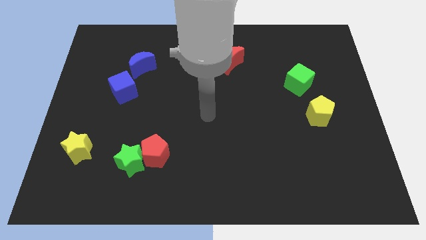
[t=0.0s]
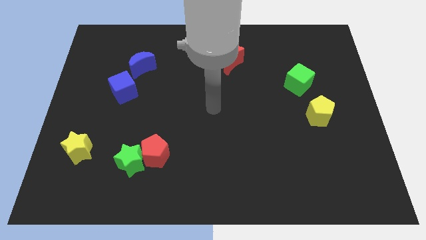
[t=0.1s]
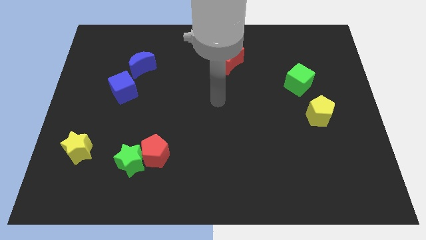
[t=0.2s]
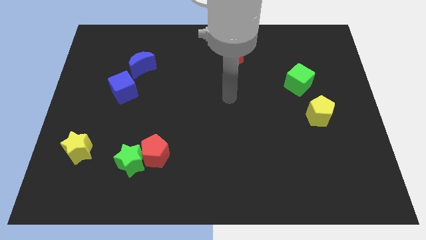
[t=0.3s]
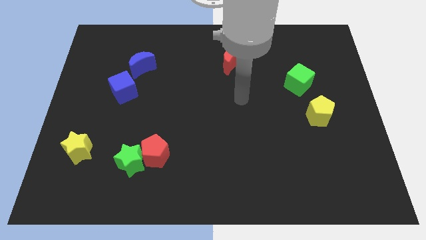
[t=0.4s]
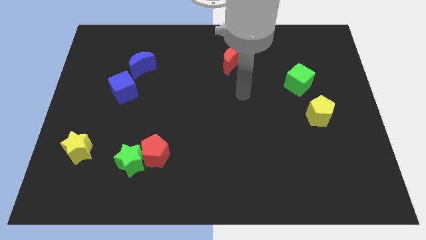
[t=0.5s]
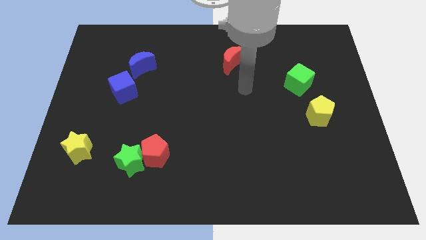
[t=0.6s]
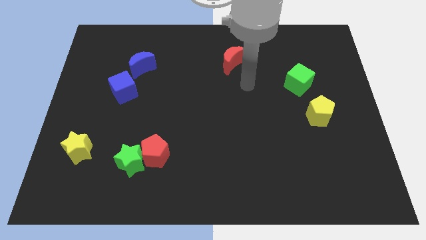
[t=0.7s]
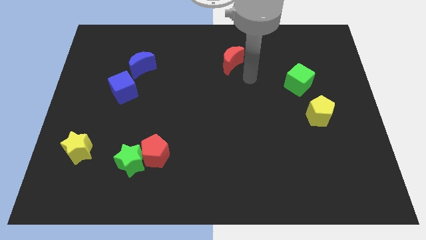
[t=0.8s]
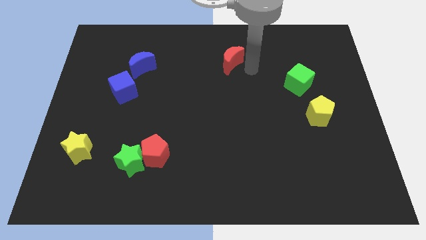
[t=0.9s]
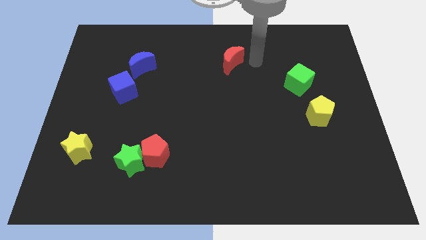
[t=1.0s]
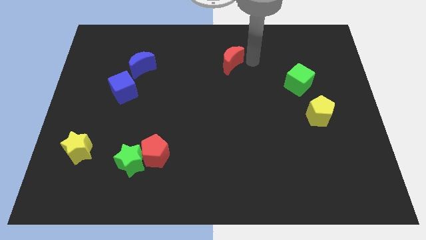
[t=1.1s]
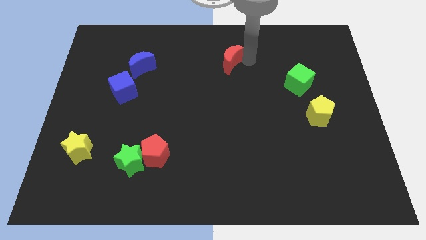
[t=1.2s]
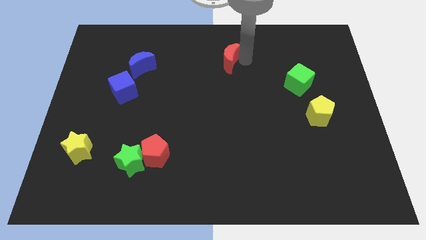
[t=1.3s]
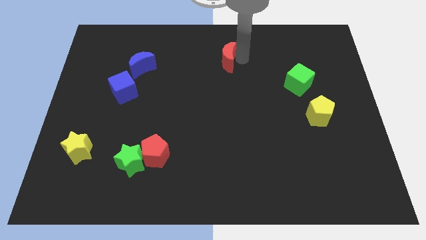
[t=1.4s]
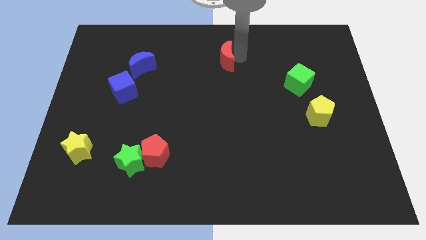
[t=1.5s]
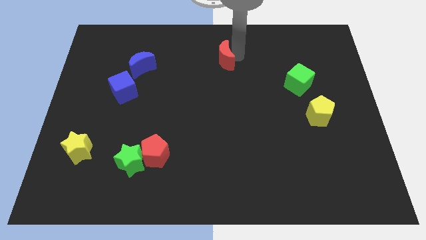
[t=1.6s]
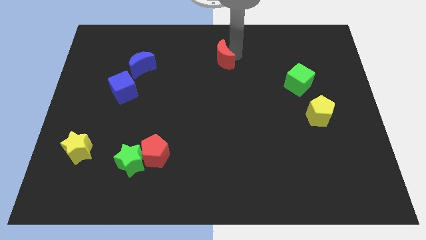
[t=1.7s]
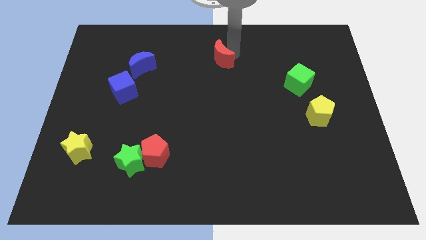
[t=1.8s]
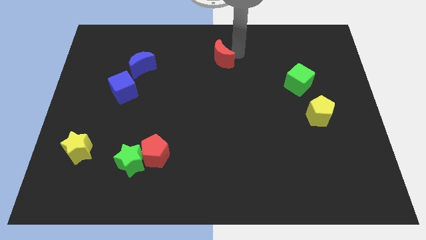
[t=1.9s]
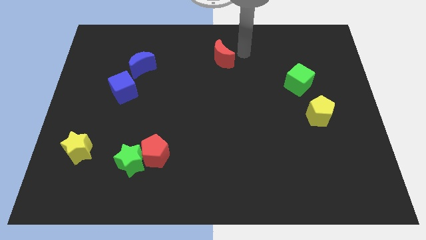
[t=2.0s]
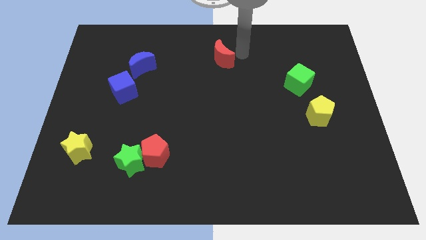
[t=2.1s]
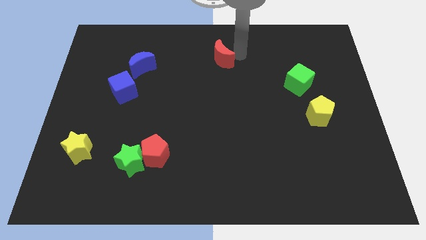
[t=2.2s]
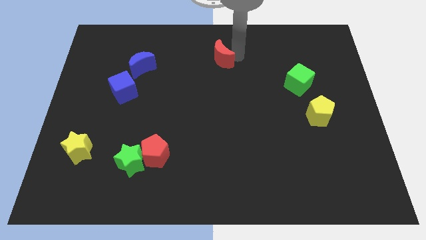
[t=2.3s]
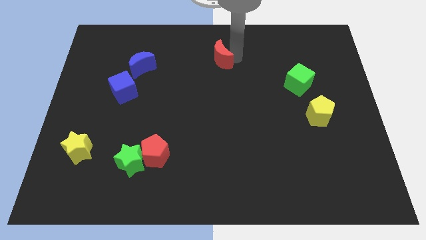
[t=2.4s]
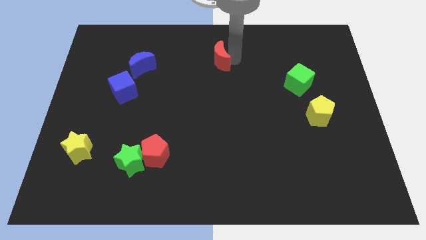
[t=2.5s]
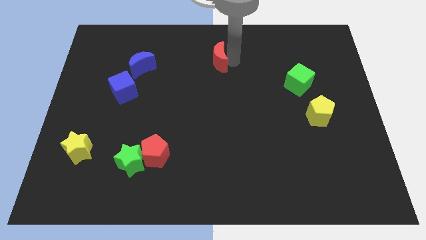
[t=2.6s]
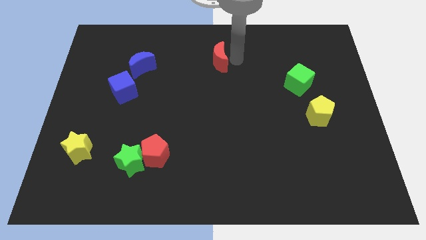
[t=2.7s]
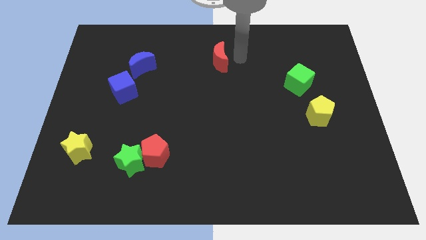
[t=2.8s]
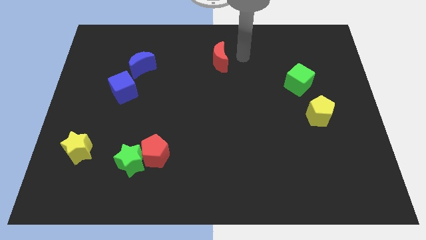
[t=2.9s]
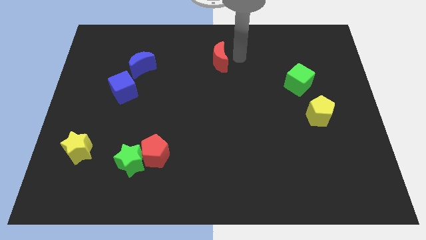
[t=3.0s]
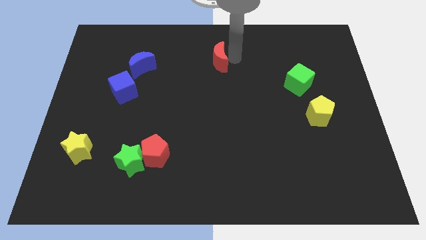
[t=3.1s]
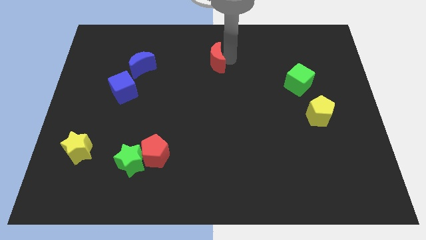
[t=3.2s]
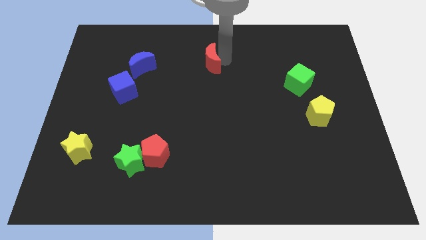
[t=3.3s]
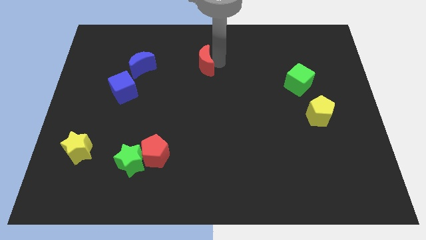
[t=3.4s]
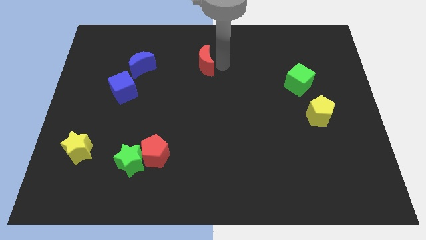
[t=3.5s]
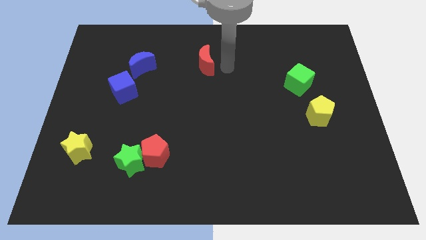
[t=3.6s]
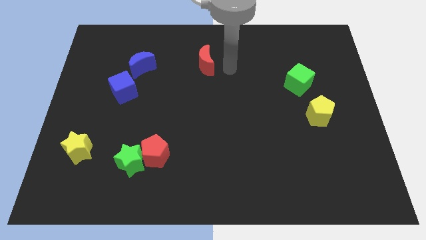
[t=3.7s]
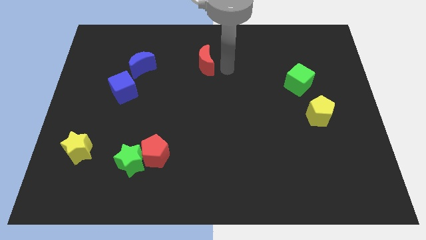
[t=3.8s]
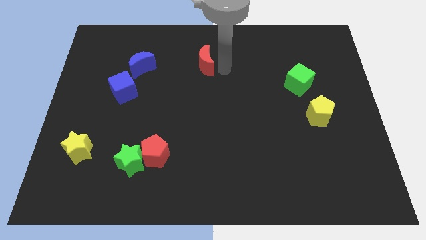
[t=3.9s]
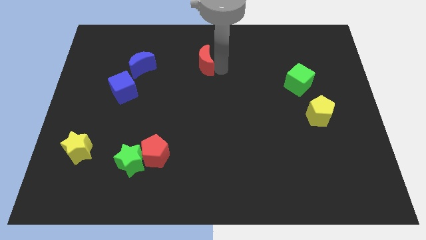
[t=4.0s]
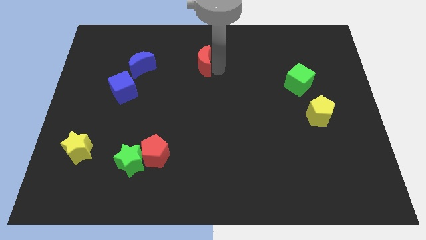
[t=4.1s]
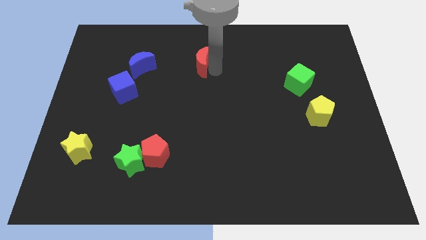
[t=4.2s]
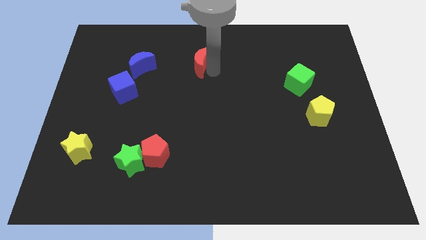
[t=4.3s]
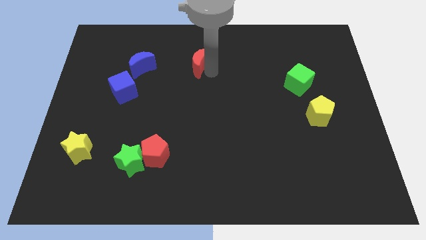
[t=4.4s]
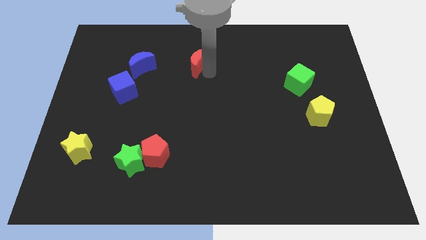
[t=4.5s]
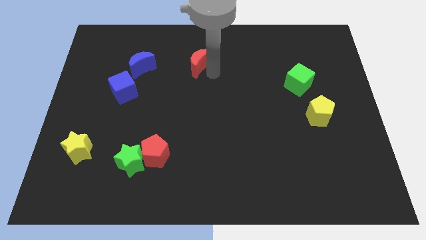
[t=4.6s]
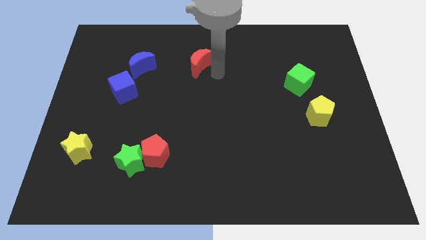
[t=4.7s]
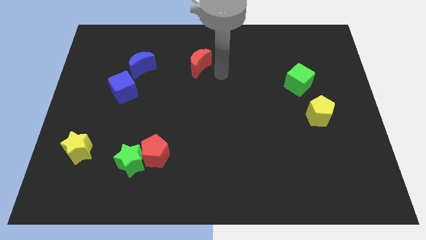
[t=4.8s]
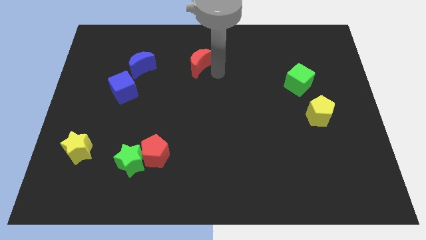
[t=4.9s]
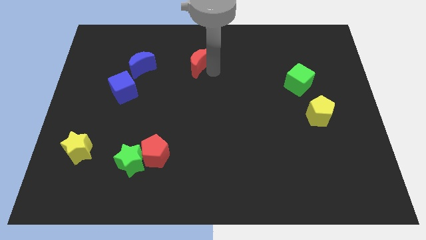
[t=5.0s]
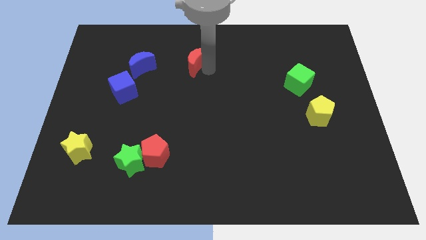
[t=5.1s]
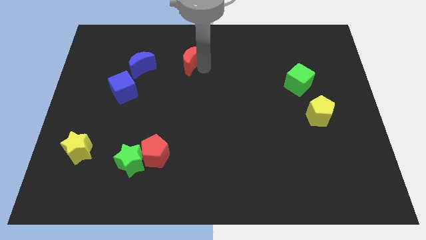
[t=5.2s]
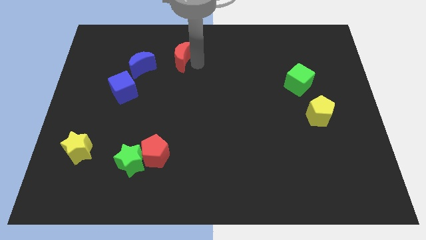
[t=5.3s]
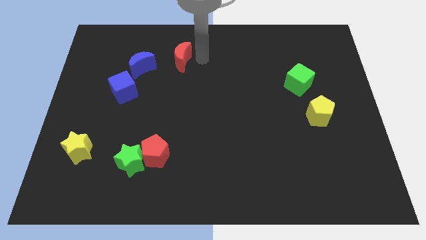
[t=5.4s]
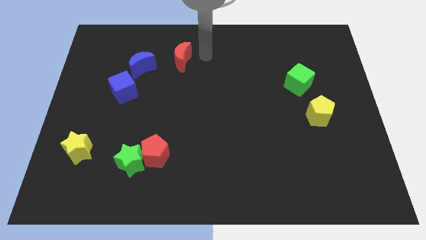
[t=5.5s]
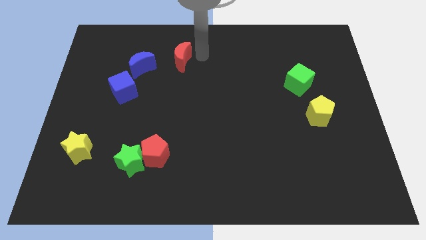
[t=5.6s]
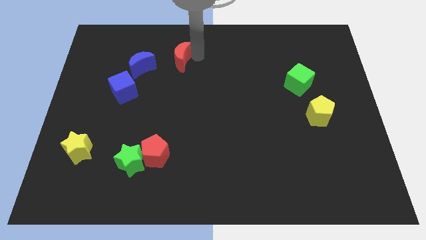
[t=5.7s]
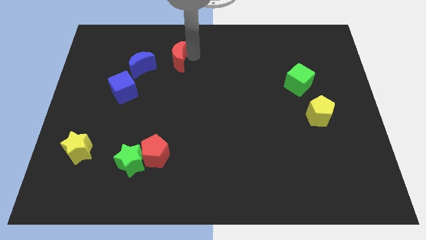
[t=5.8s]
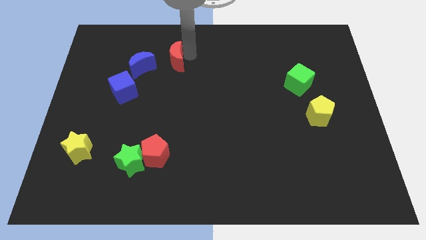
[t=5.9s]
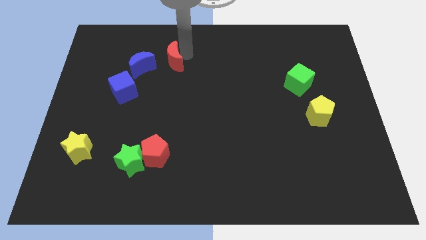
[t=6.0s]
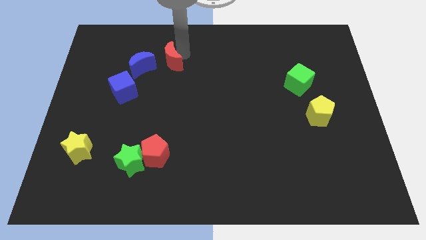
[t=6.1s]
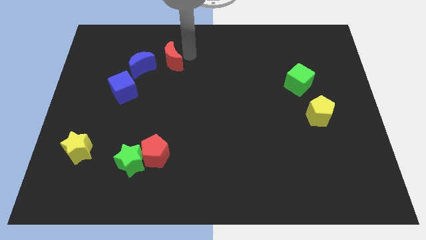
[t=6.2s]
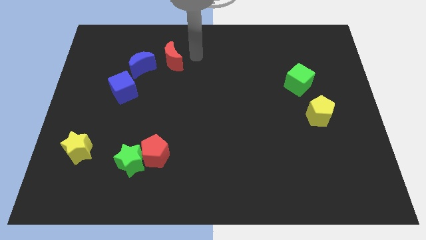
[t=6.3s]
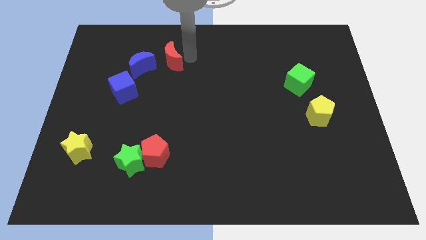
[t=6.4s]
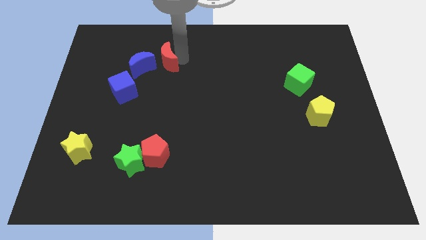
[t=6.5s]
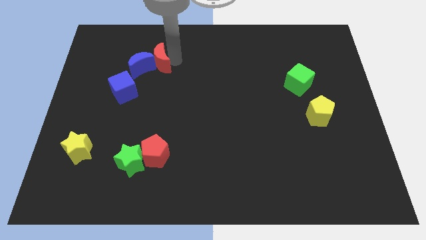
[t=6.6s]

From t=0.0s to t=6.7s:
move the red moon next to the blue moon
